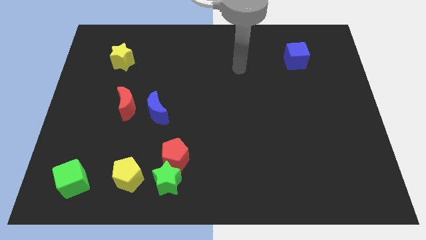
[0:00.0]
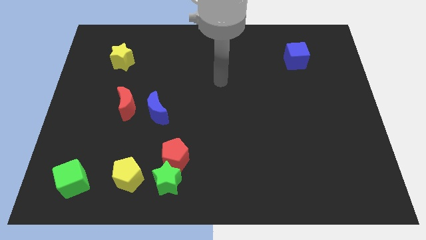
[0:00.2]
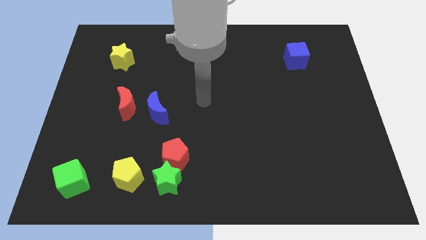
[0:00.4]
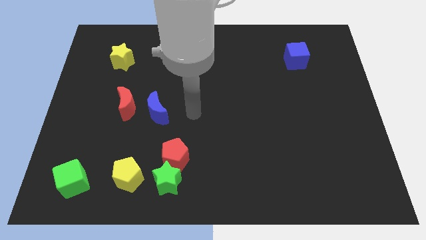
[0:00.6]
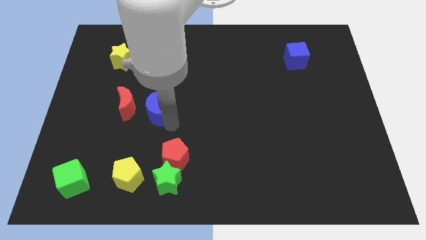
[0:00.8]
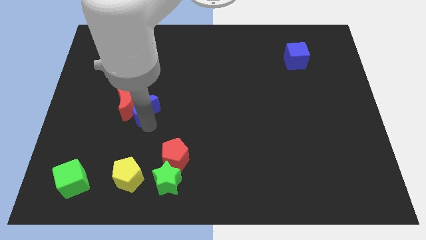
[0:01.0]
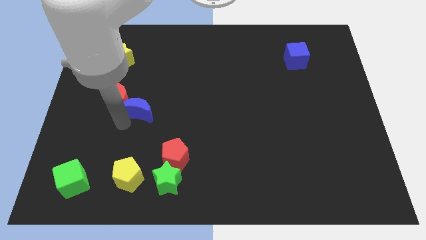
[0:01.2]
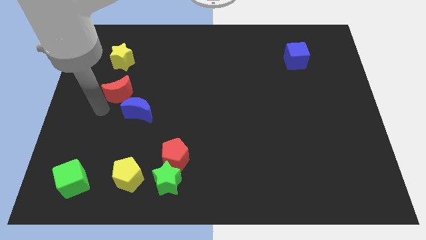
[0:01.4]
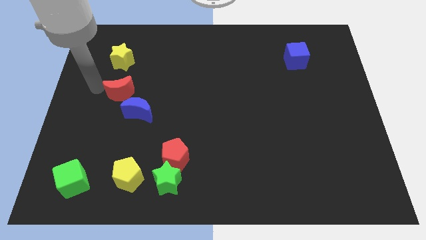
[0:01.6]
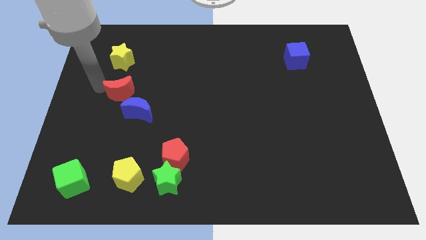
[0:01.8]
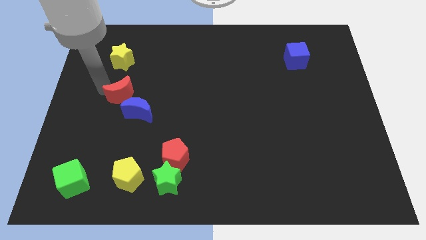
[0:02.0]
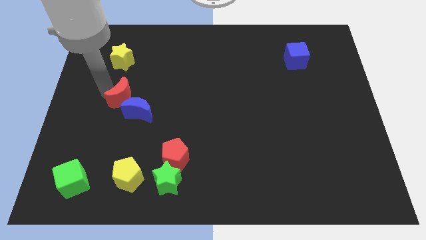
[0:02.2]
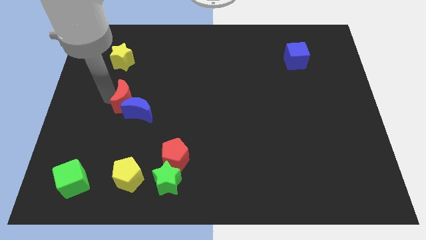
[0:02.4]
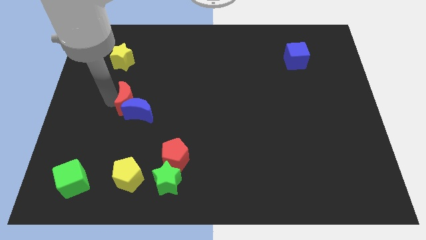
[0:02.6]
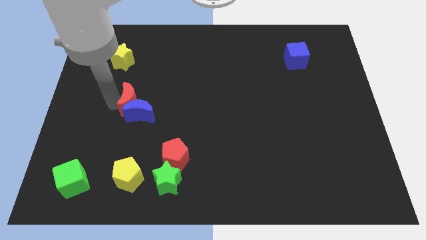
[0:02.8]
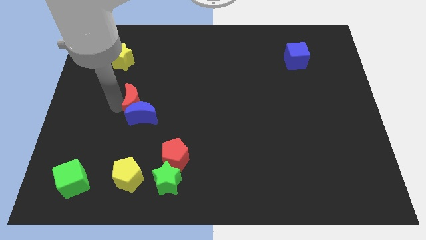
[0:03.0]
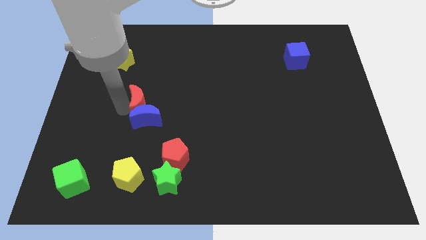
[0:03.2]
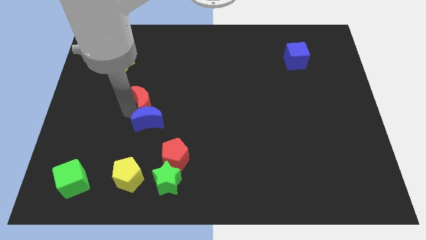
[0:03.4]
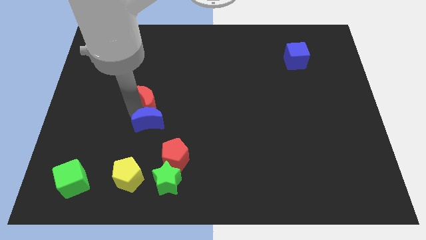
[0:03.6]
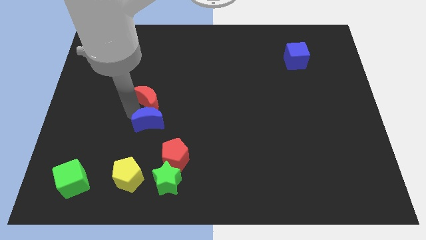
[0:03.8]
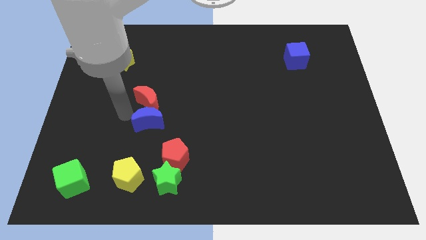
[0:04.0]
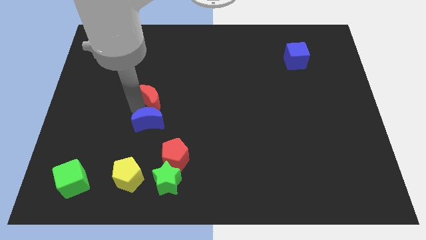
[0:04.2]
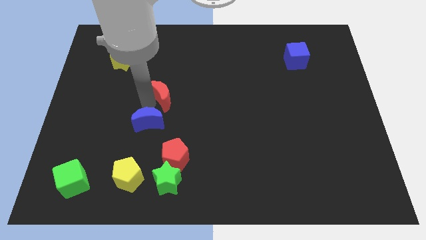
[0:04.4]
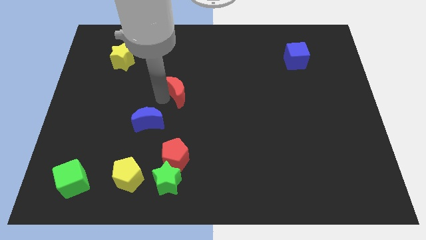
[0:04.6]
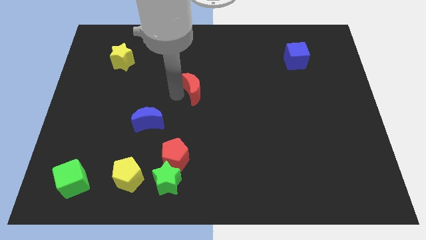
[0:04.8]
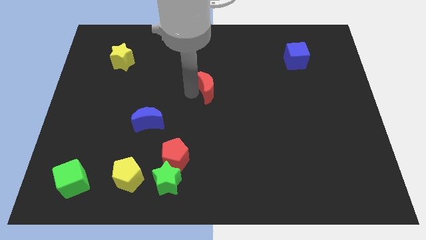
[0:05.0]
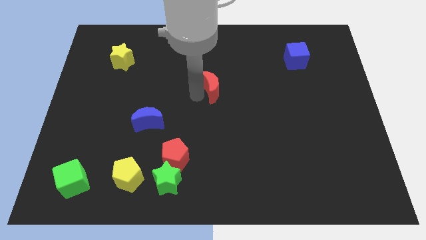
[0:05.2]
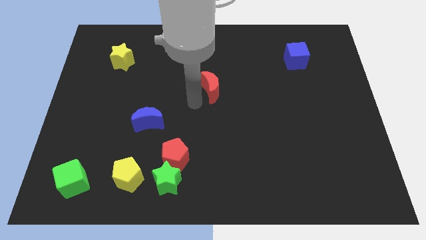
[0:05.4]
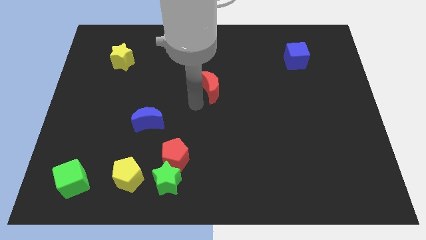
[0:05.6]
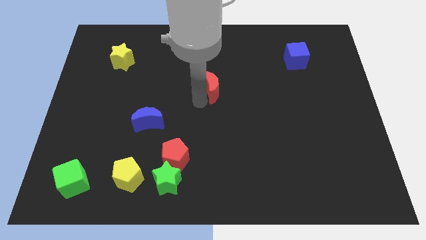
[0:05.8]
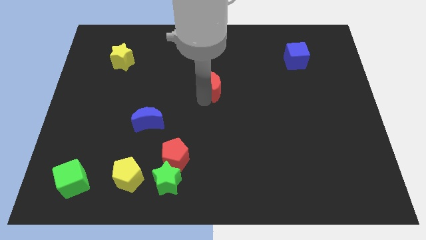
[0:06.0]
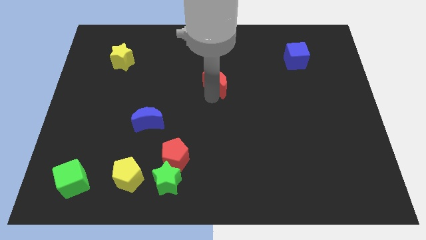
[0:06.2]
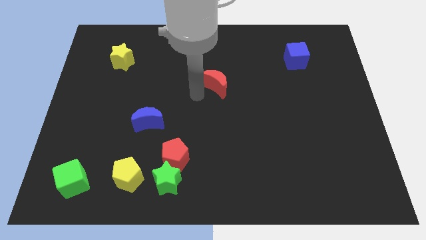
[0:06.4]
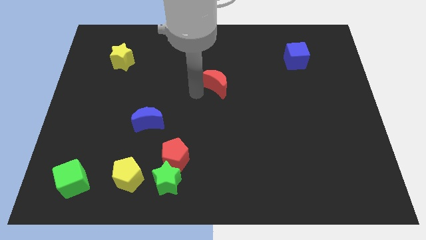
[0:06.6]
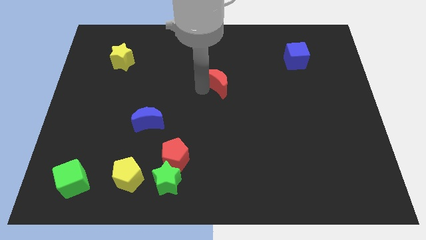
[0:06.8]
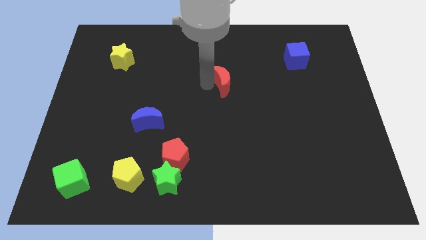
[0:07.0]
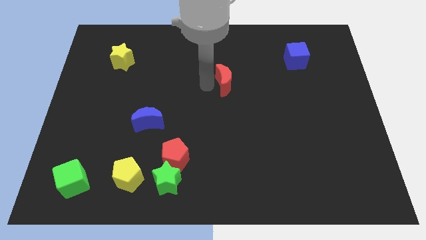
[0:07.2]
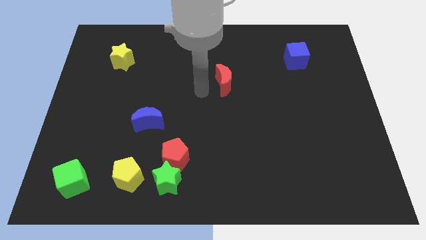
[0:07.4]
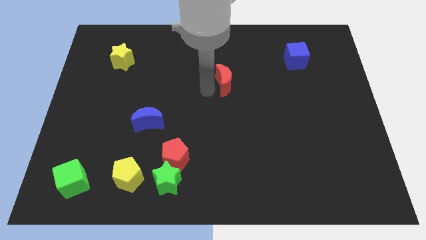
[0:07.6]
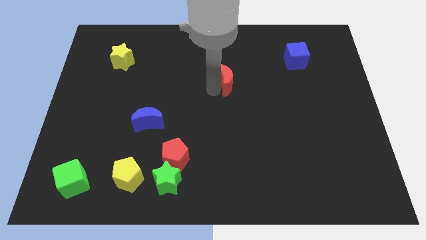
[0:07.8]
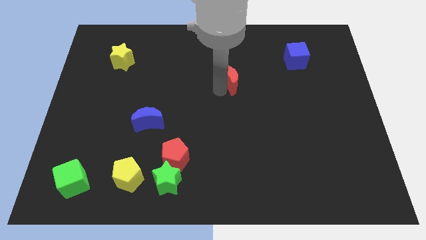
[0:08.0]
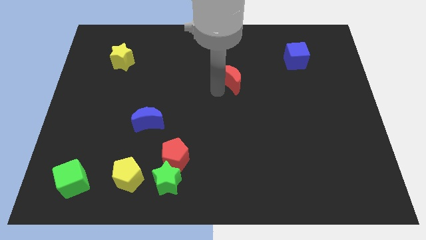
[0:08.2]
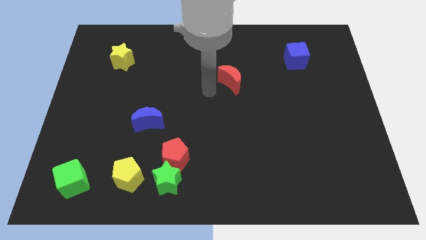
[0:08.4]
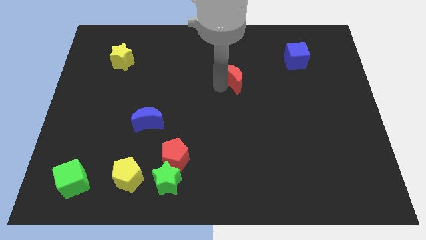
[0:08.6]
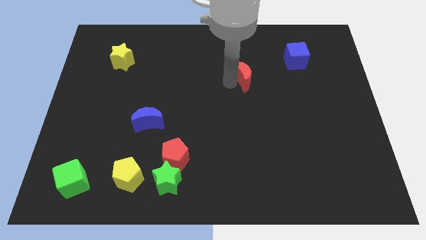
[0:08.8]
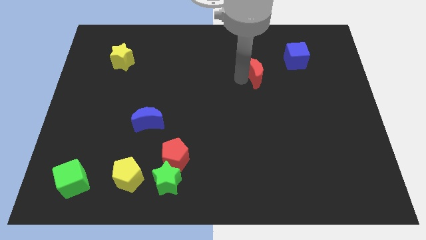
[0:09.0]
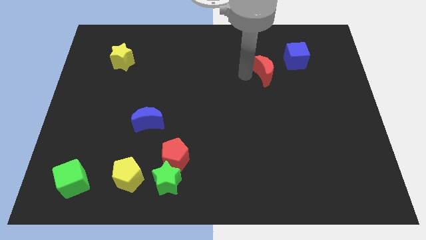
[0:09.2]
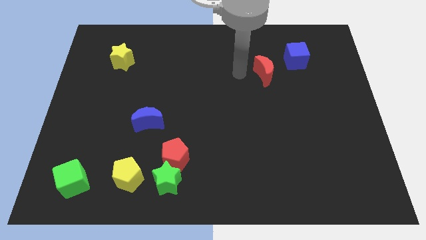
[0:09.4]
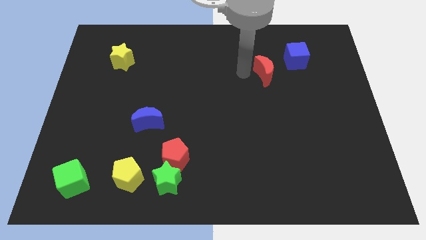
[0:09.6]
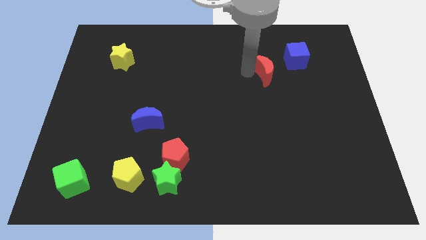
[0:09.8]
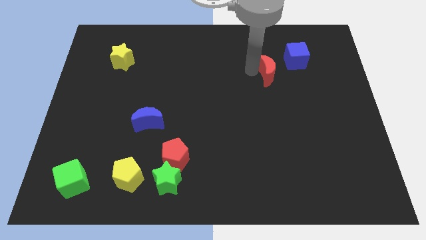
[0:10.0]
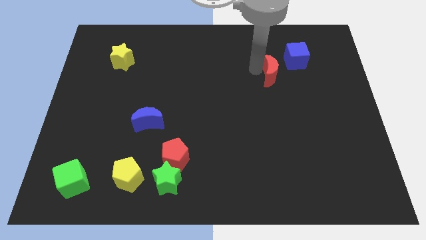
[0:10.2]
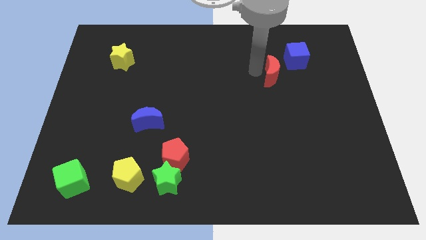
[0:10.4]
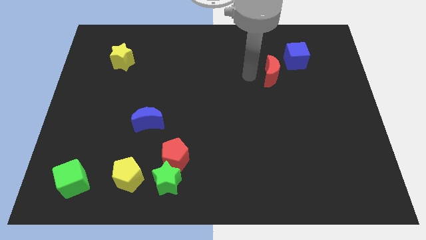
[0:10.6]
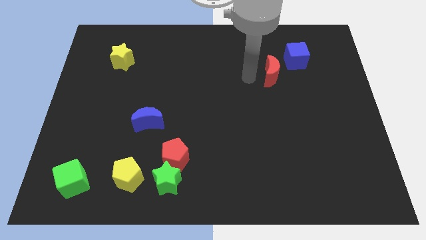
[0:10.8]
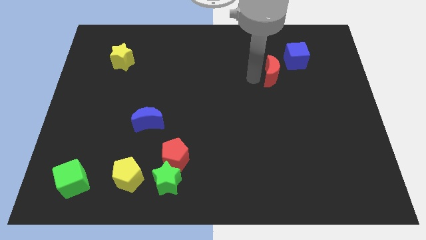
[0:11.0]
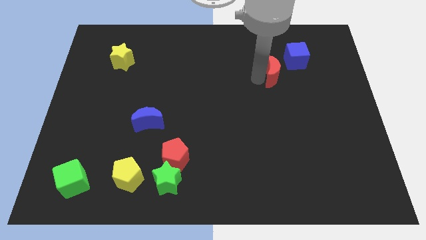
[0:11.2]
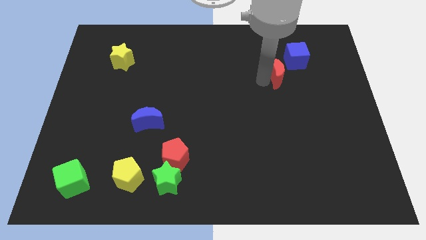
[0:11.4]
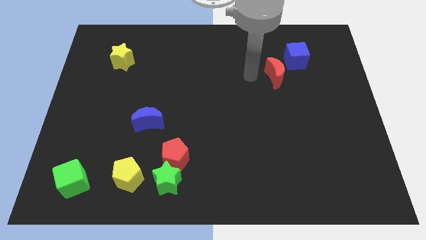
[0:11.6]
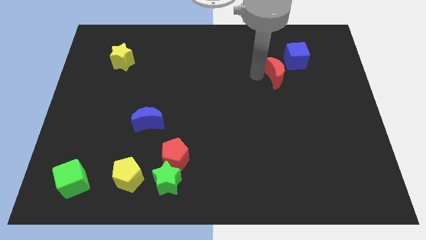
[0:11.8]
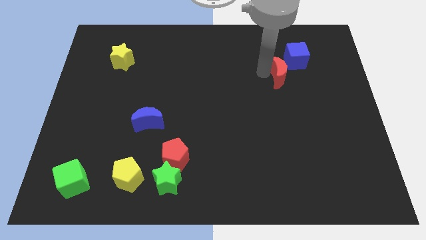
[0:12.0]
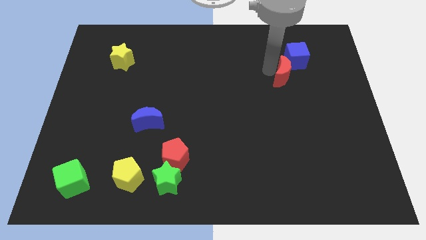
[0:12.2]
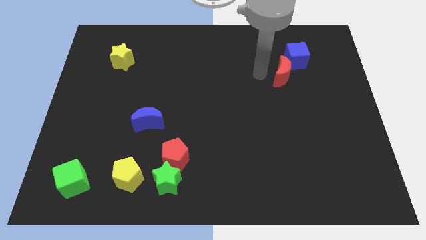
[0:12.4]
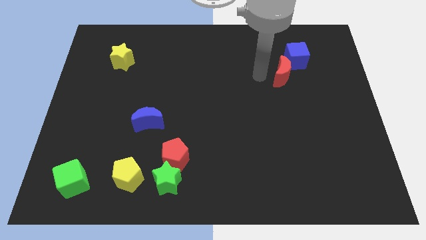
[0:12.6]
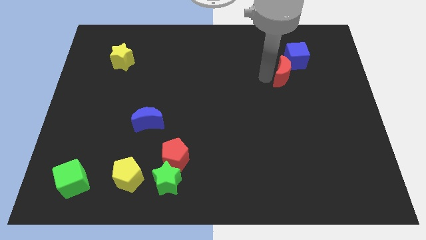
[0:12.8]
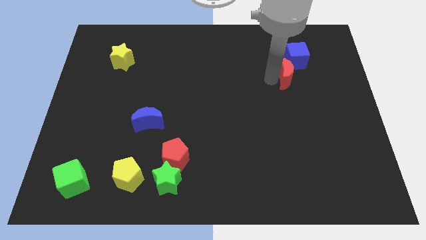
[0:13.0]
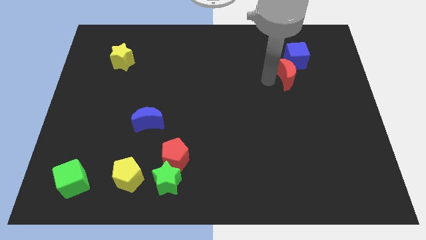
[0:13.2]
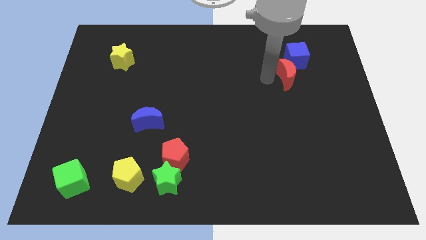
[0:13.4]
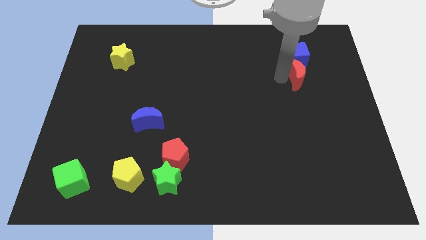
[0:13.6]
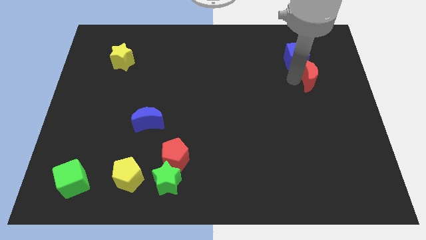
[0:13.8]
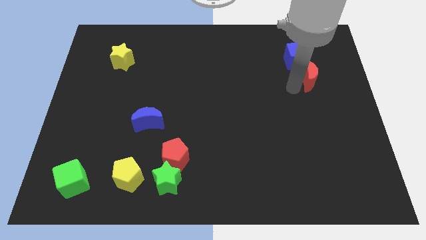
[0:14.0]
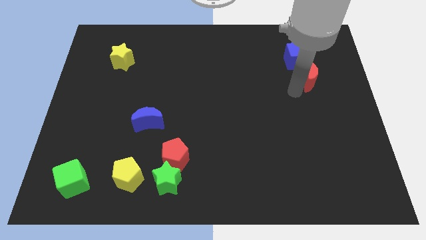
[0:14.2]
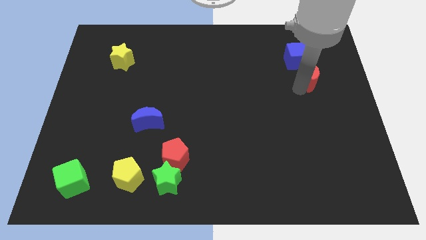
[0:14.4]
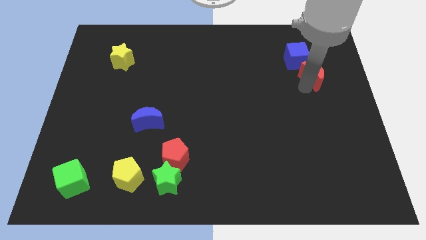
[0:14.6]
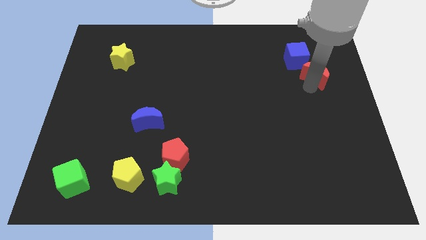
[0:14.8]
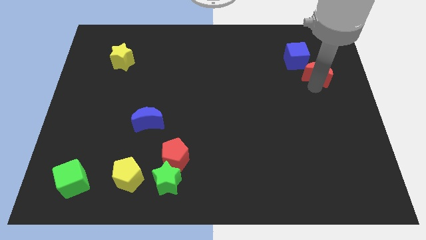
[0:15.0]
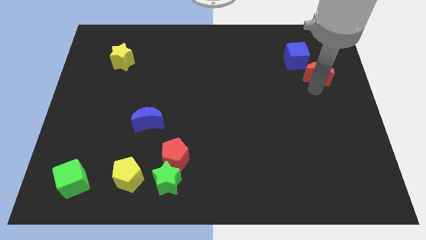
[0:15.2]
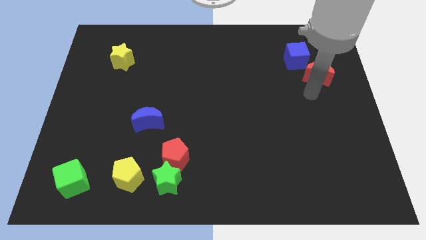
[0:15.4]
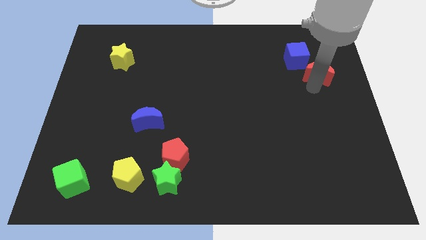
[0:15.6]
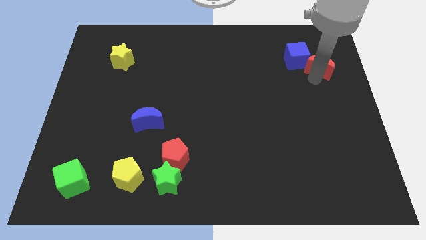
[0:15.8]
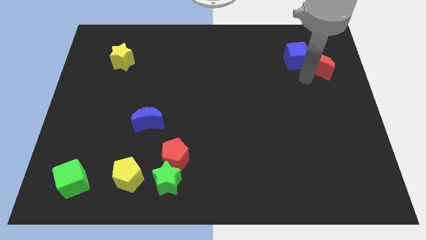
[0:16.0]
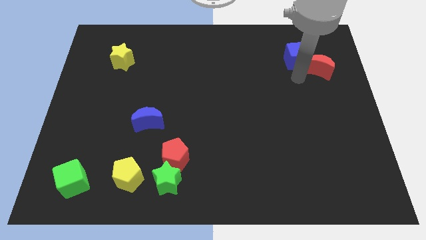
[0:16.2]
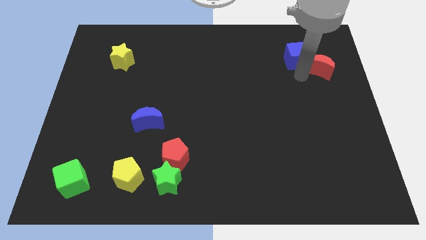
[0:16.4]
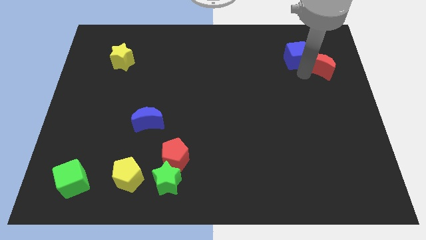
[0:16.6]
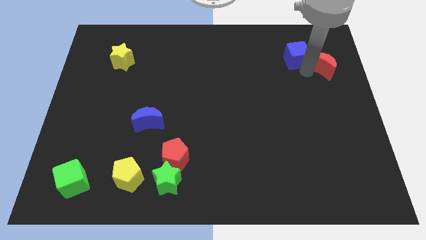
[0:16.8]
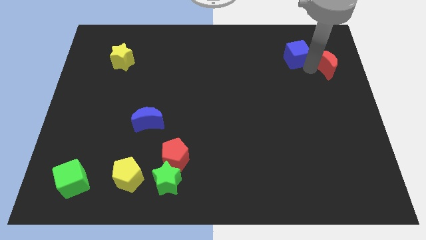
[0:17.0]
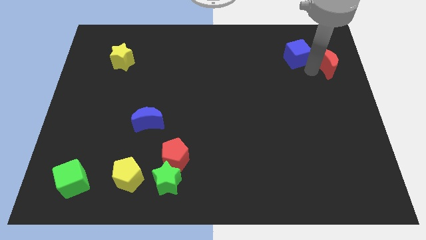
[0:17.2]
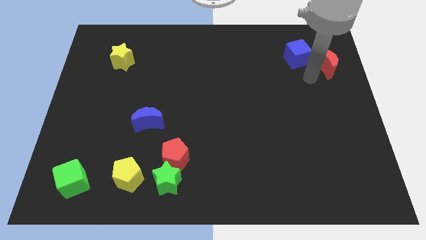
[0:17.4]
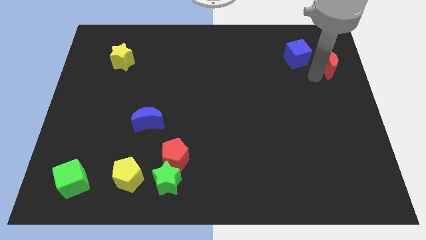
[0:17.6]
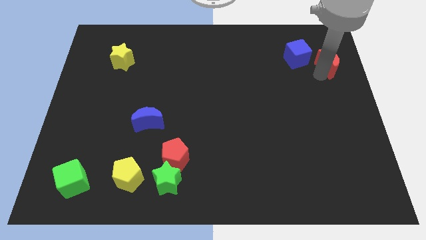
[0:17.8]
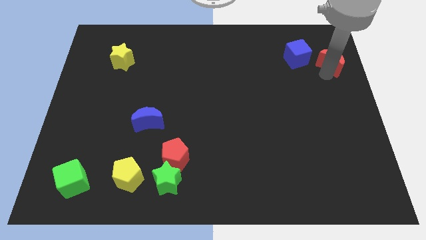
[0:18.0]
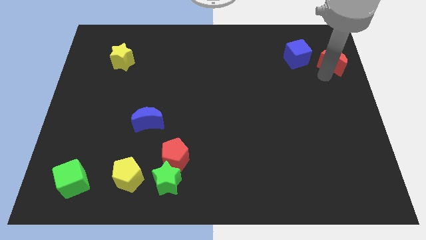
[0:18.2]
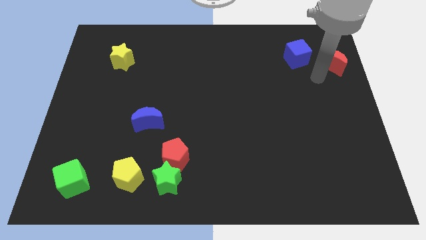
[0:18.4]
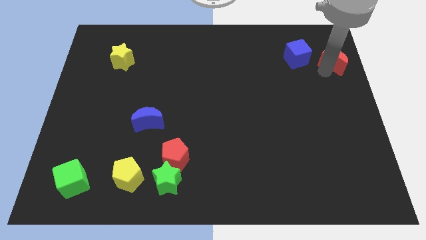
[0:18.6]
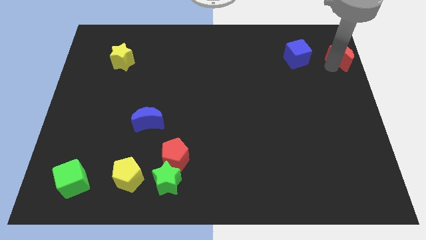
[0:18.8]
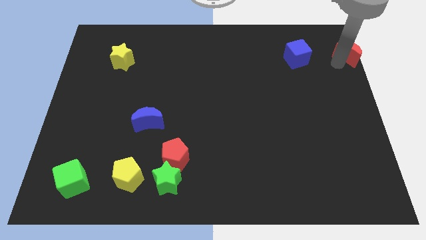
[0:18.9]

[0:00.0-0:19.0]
push the red moon to the upper right corner
